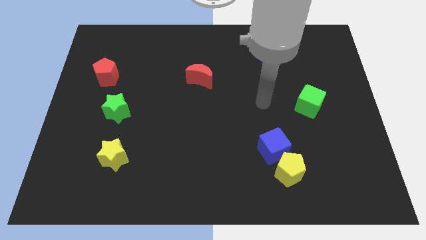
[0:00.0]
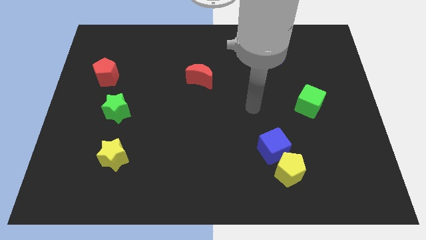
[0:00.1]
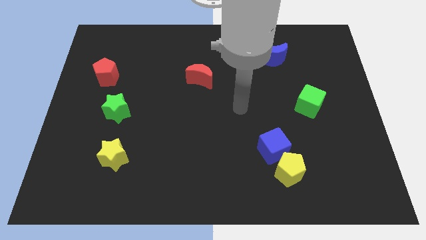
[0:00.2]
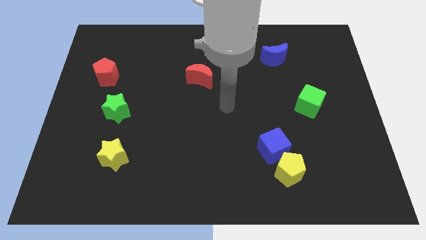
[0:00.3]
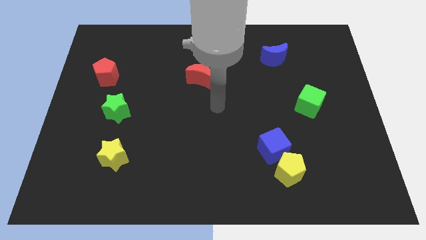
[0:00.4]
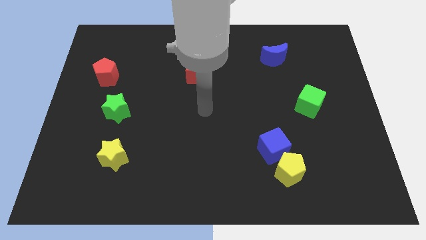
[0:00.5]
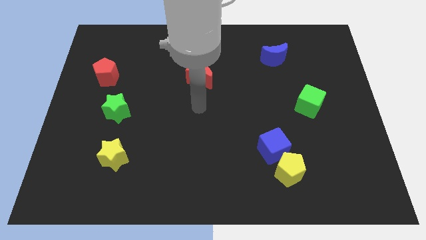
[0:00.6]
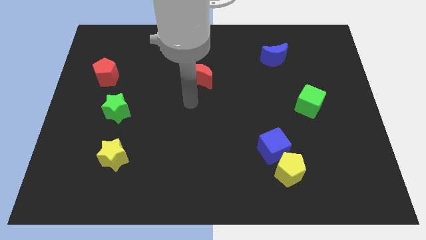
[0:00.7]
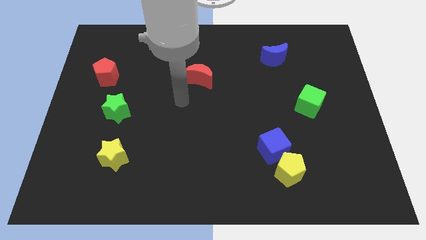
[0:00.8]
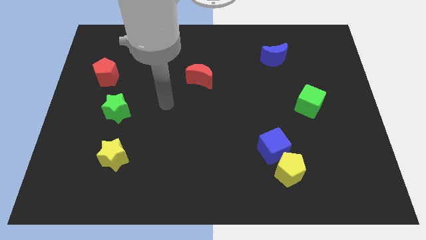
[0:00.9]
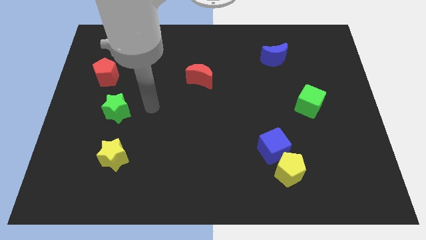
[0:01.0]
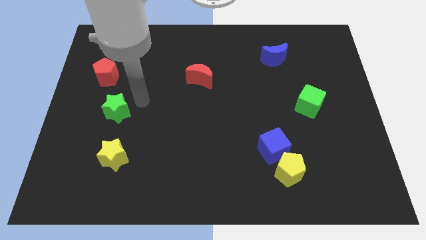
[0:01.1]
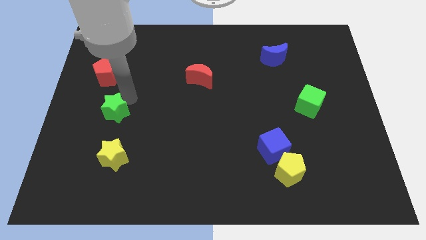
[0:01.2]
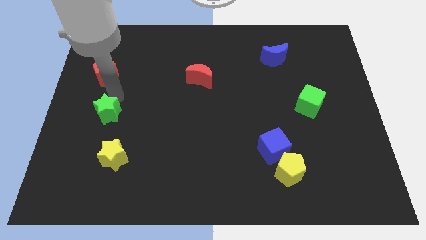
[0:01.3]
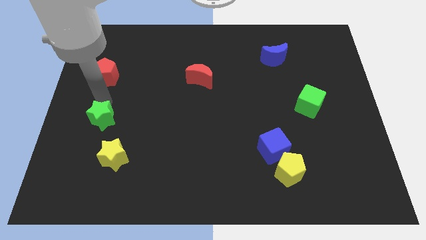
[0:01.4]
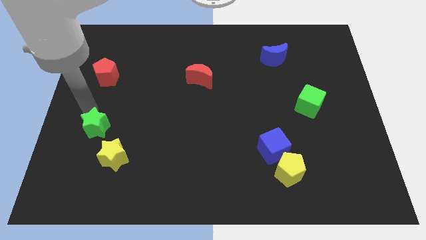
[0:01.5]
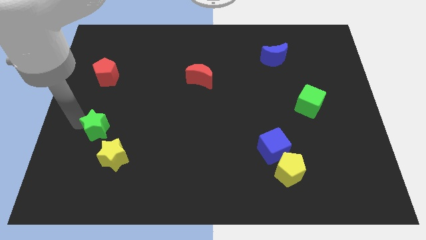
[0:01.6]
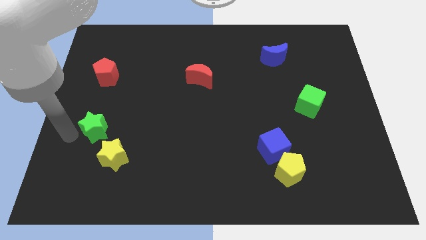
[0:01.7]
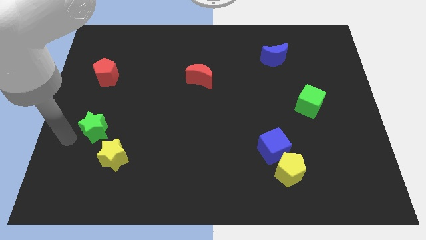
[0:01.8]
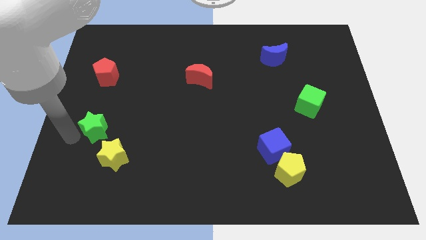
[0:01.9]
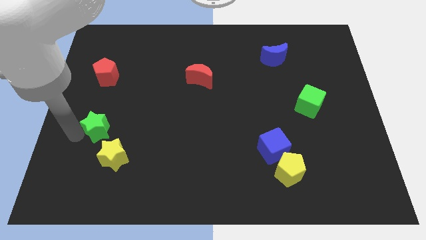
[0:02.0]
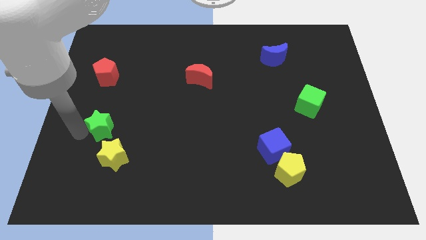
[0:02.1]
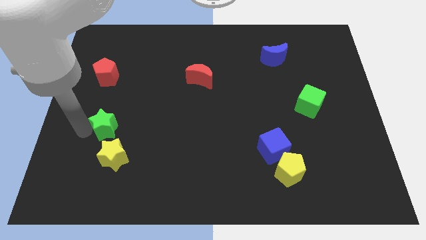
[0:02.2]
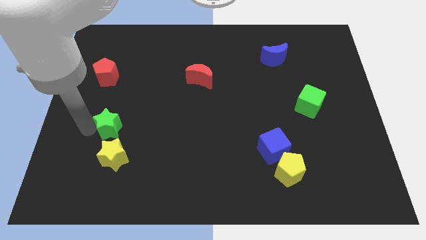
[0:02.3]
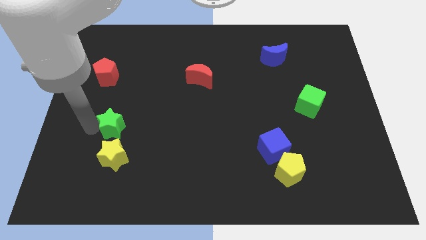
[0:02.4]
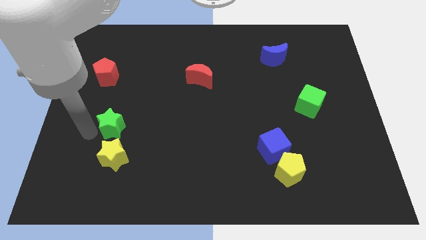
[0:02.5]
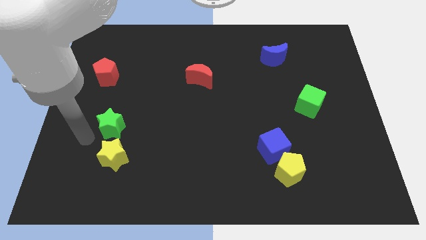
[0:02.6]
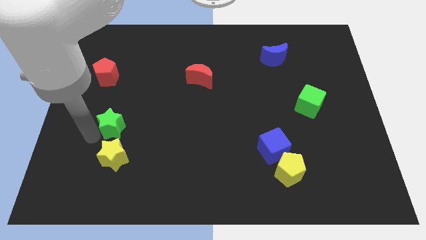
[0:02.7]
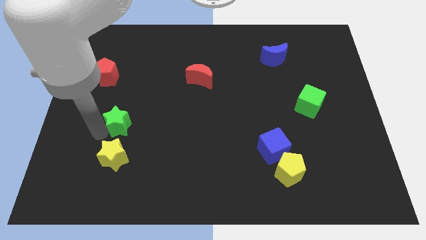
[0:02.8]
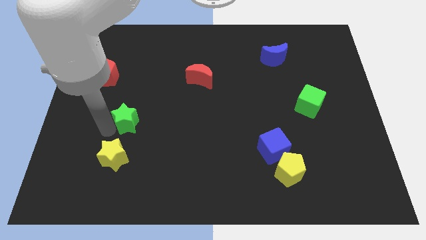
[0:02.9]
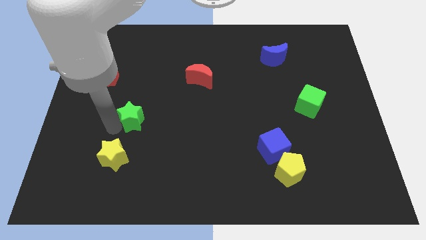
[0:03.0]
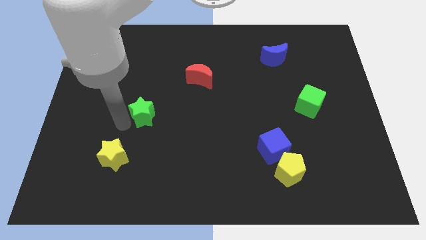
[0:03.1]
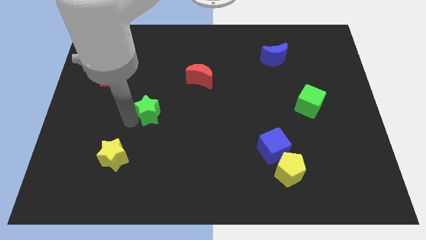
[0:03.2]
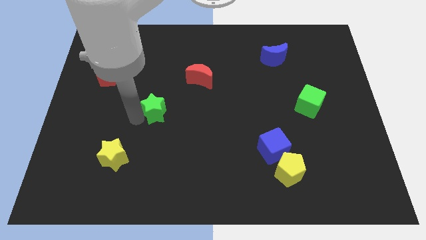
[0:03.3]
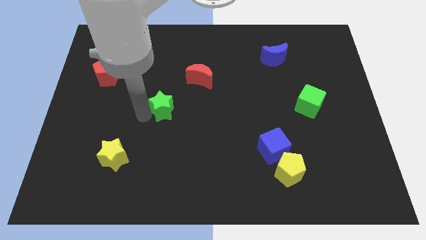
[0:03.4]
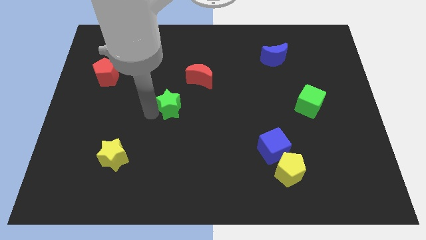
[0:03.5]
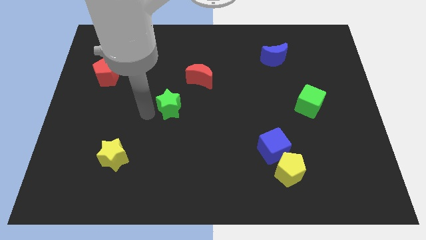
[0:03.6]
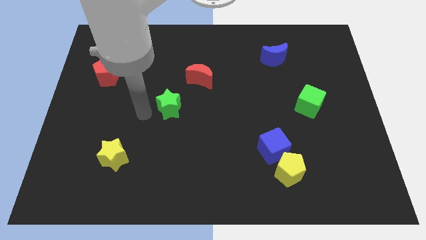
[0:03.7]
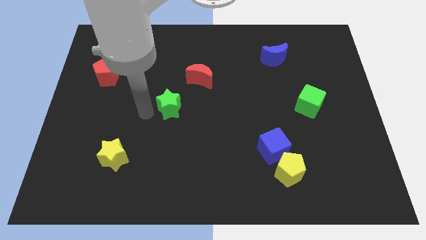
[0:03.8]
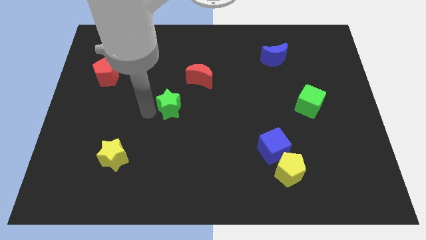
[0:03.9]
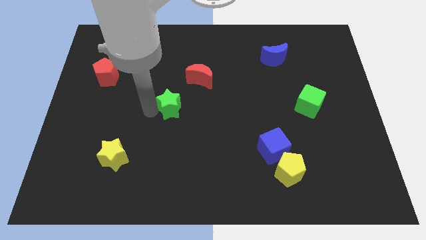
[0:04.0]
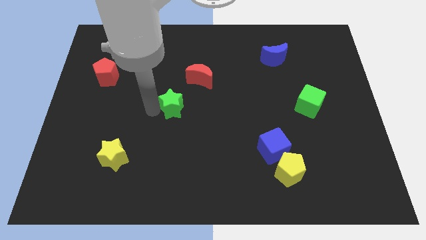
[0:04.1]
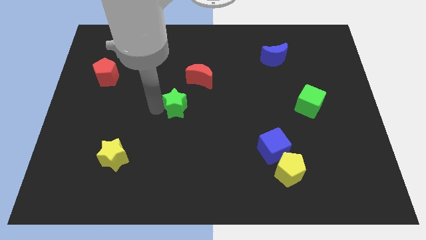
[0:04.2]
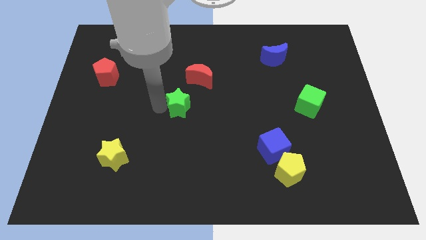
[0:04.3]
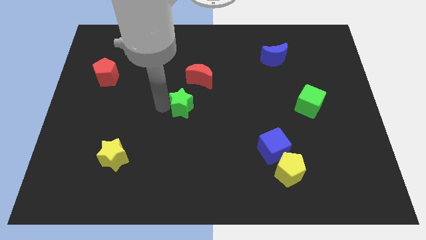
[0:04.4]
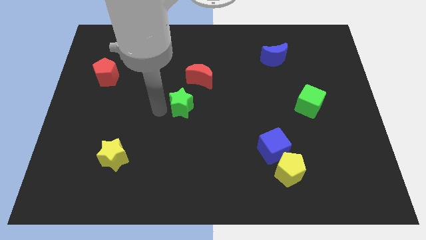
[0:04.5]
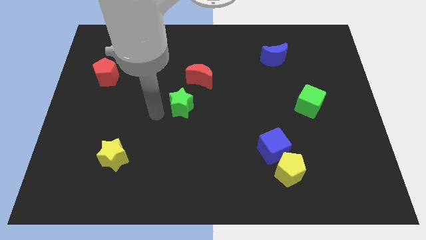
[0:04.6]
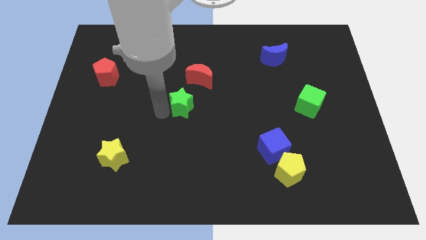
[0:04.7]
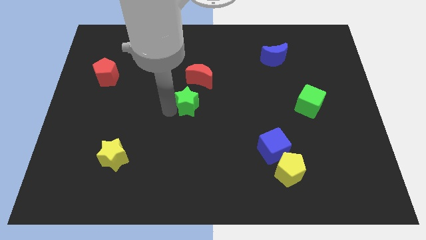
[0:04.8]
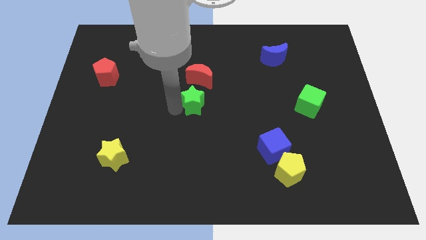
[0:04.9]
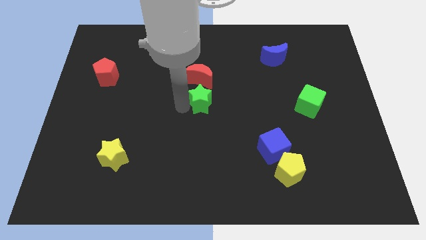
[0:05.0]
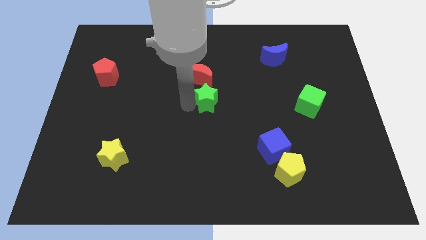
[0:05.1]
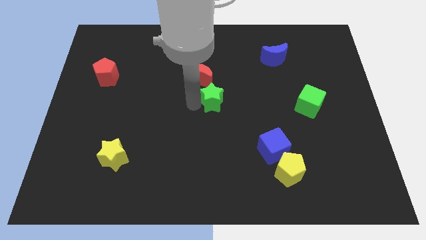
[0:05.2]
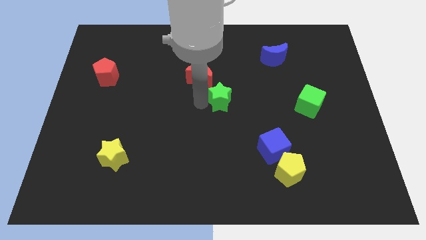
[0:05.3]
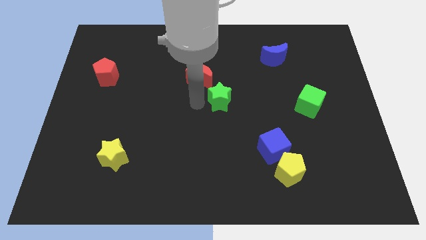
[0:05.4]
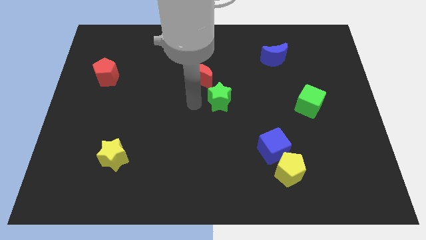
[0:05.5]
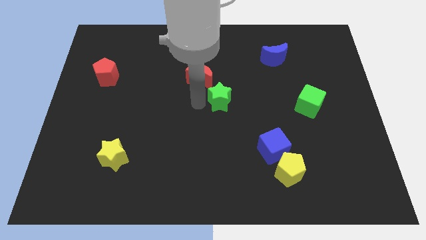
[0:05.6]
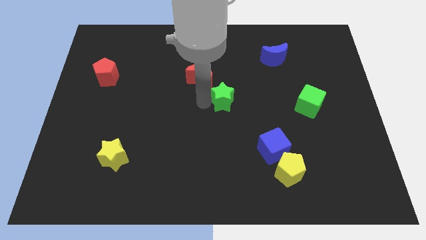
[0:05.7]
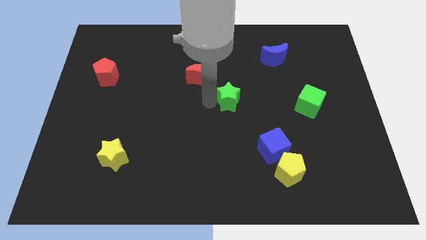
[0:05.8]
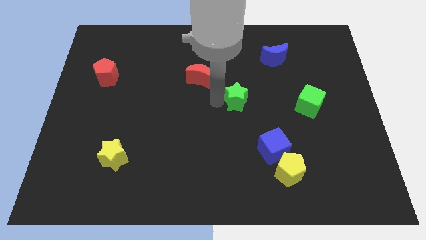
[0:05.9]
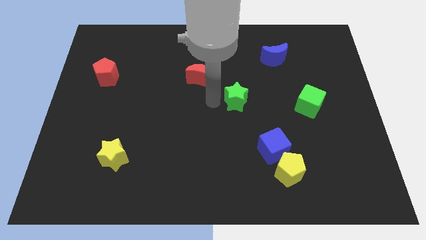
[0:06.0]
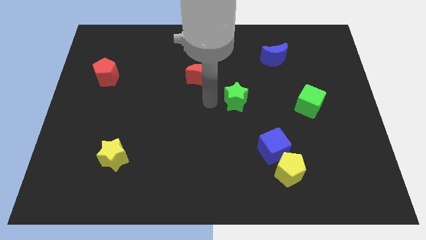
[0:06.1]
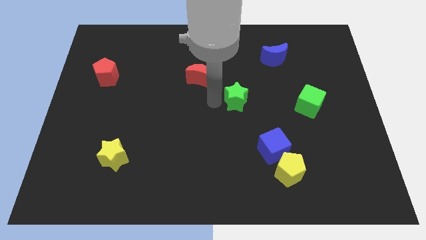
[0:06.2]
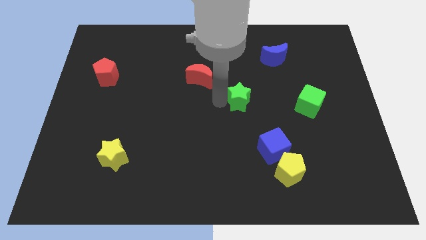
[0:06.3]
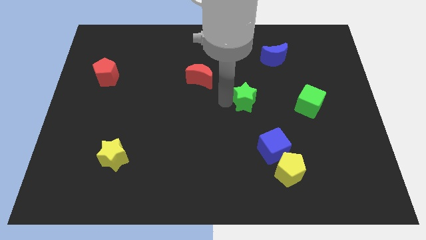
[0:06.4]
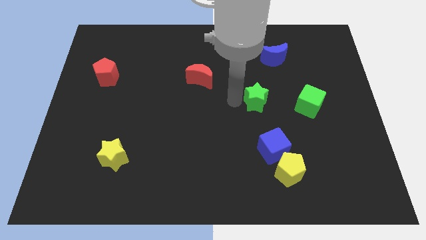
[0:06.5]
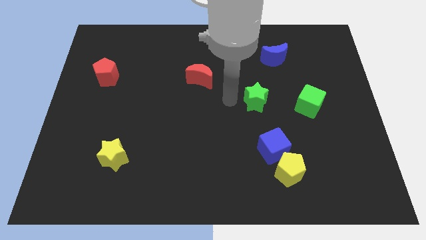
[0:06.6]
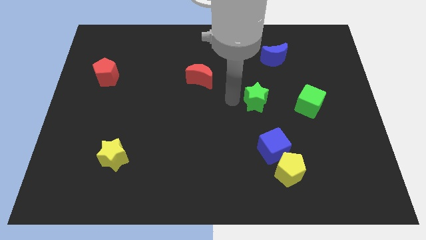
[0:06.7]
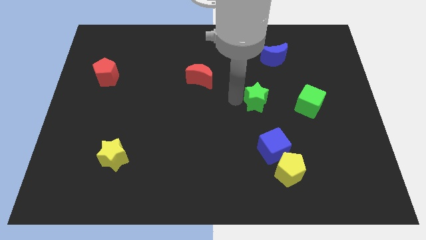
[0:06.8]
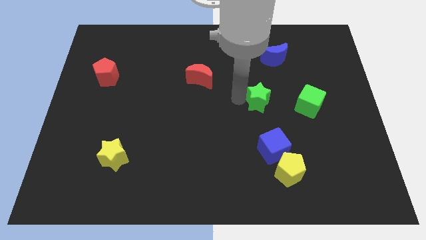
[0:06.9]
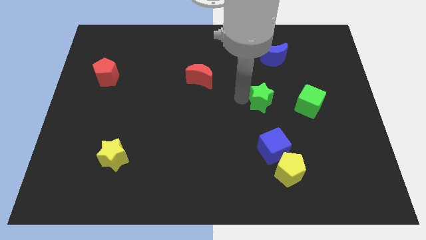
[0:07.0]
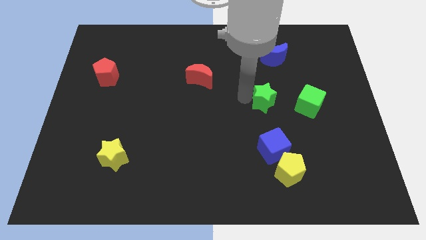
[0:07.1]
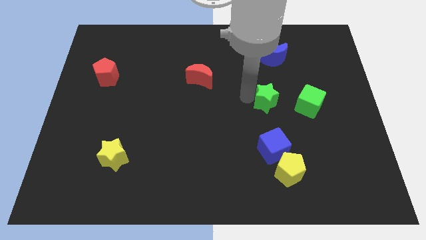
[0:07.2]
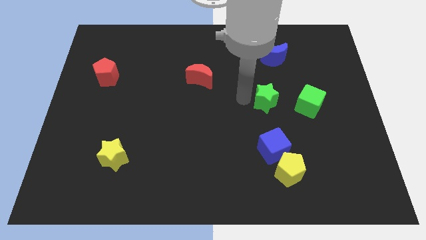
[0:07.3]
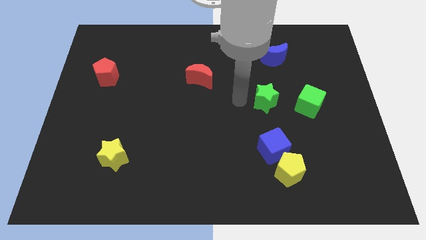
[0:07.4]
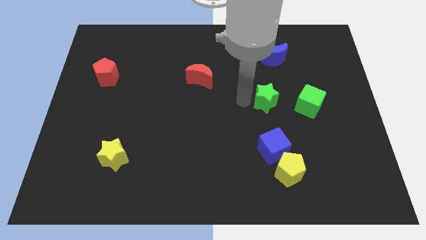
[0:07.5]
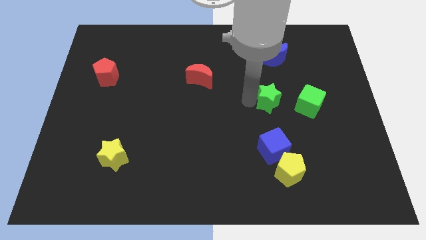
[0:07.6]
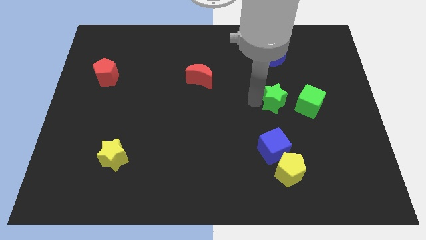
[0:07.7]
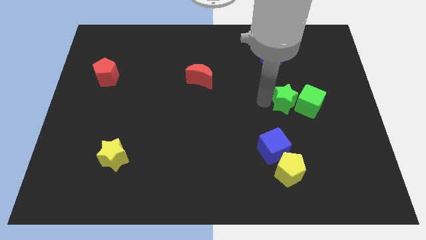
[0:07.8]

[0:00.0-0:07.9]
slide the green star to the green cube
